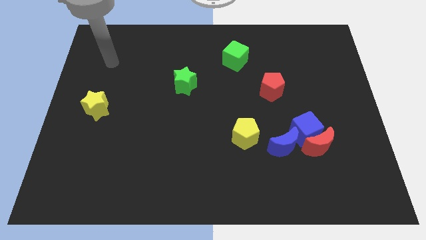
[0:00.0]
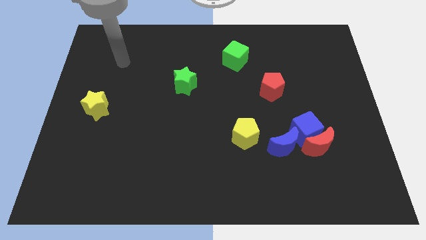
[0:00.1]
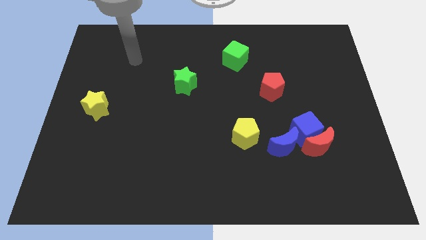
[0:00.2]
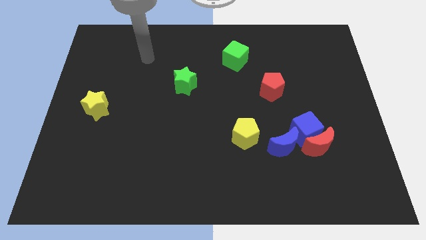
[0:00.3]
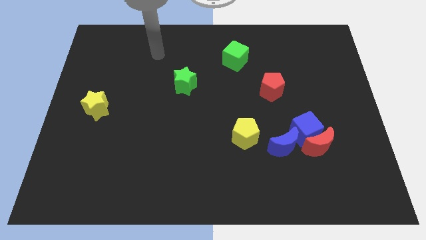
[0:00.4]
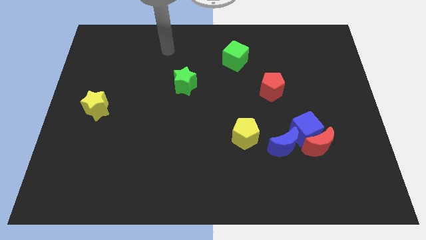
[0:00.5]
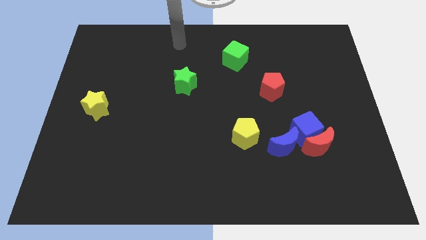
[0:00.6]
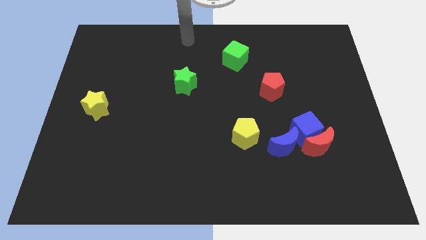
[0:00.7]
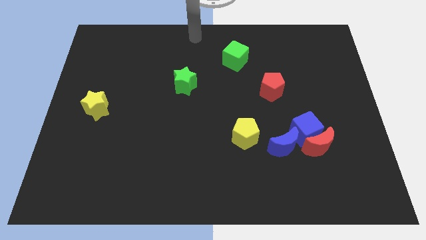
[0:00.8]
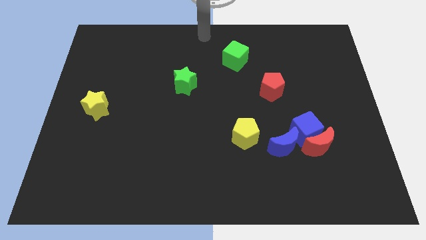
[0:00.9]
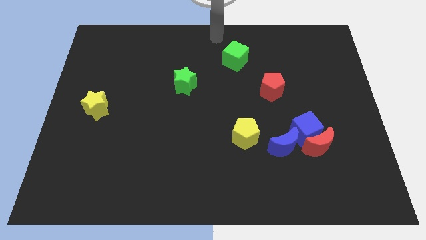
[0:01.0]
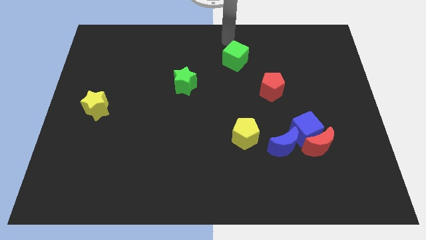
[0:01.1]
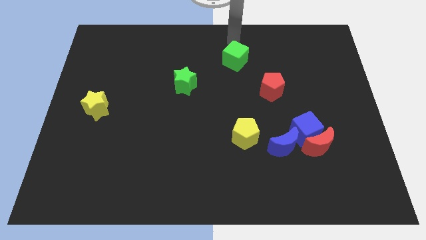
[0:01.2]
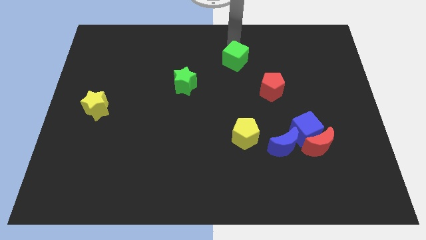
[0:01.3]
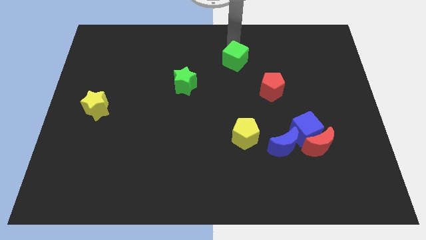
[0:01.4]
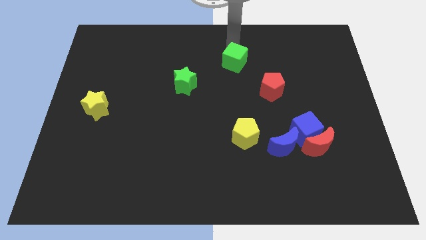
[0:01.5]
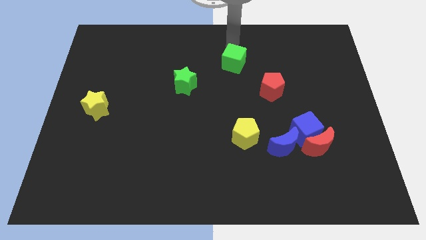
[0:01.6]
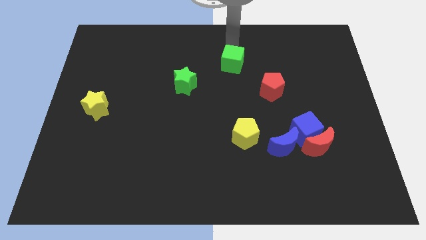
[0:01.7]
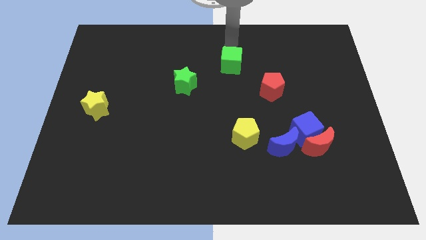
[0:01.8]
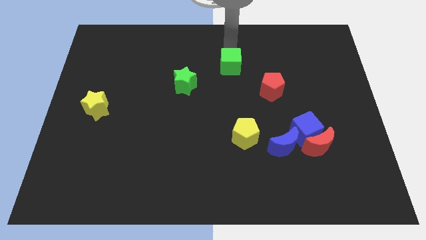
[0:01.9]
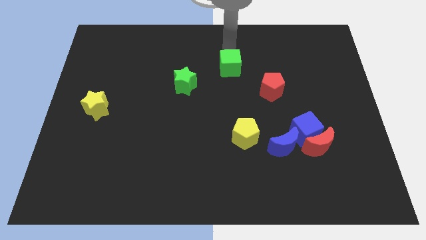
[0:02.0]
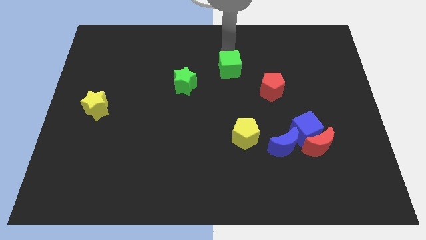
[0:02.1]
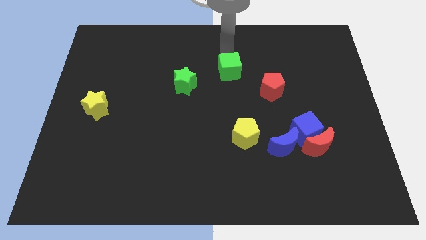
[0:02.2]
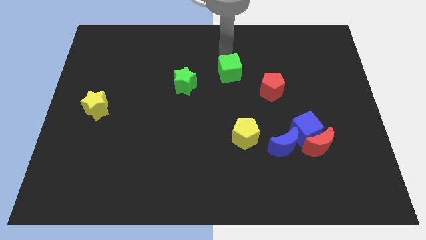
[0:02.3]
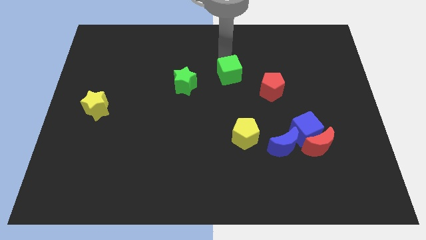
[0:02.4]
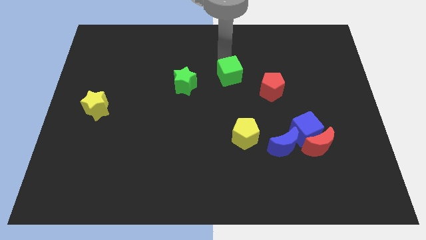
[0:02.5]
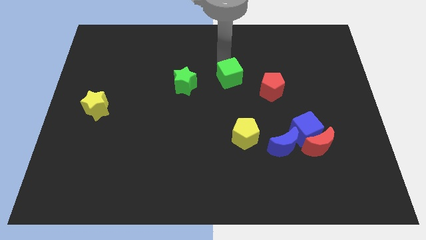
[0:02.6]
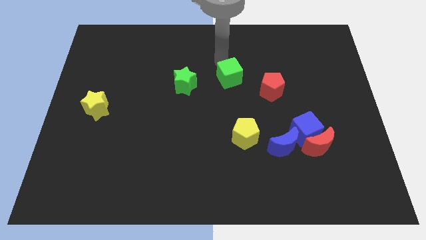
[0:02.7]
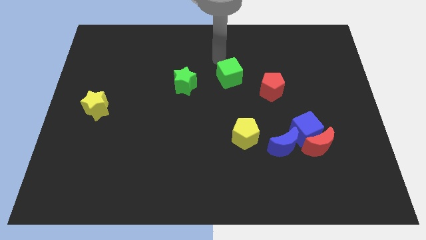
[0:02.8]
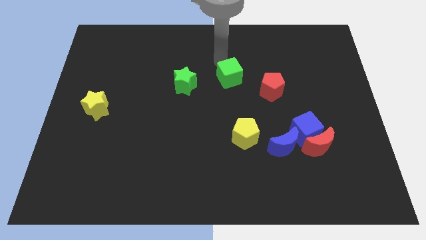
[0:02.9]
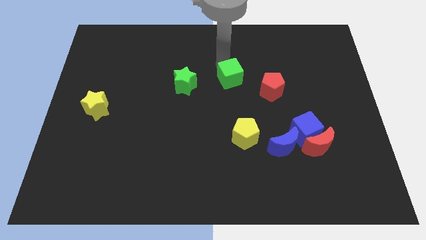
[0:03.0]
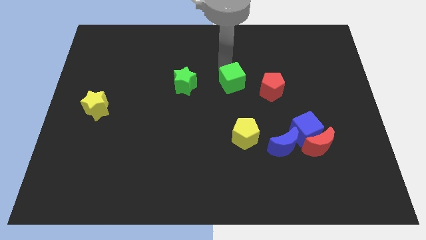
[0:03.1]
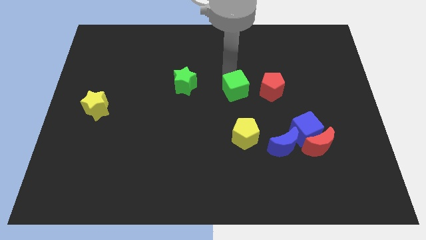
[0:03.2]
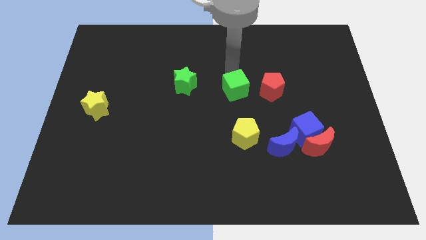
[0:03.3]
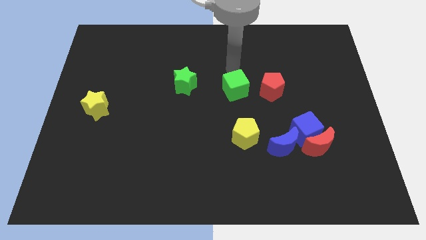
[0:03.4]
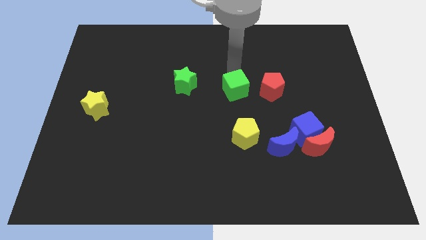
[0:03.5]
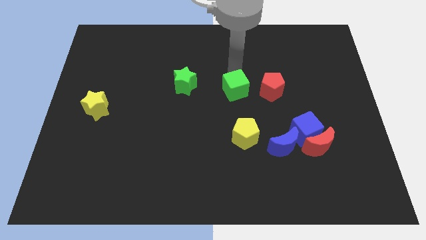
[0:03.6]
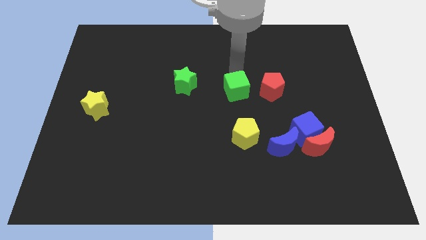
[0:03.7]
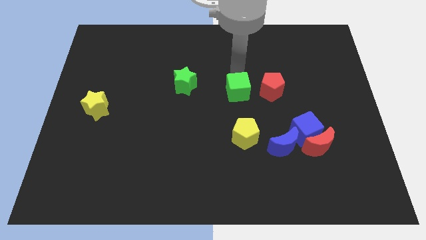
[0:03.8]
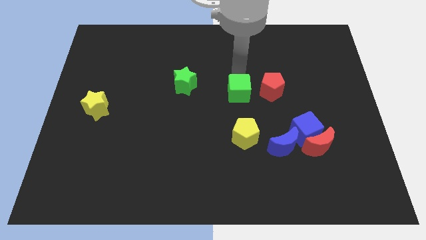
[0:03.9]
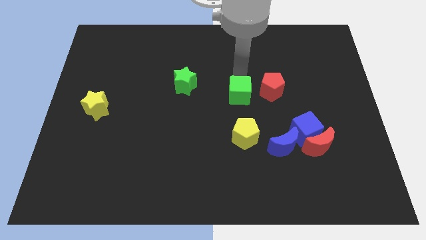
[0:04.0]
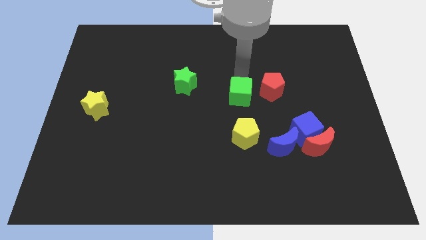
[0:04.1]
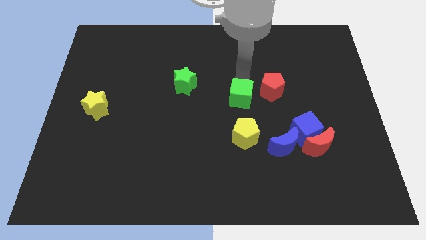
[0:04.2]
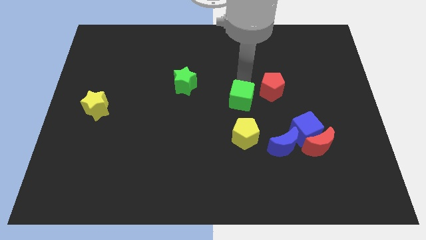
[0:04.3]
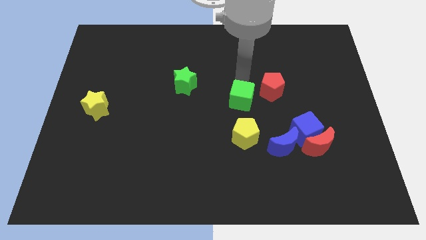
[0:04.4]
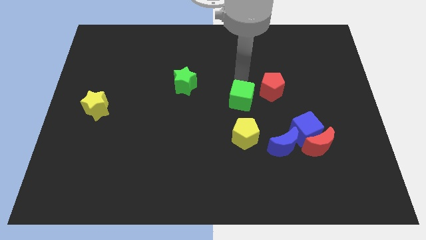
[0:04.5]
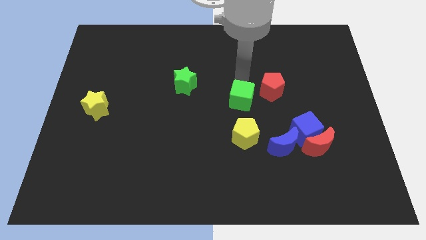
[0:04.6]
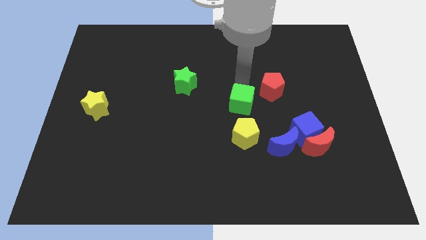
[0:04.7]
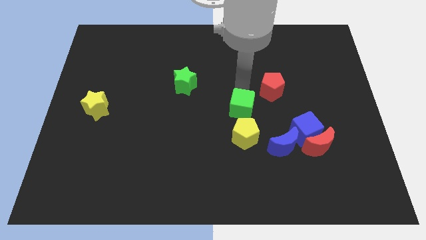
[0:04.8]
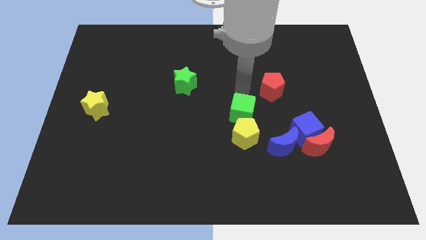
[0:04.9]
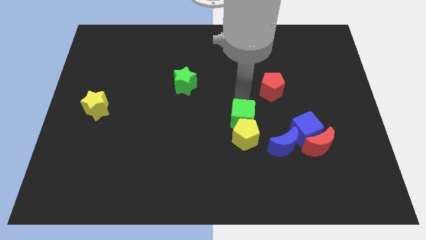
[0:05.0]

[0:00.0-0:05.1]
slide the green cube next to the yellow pentagon

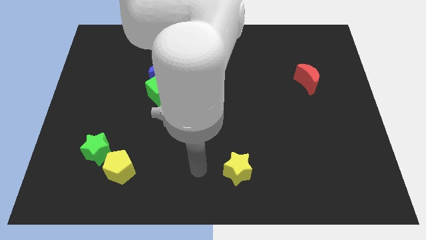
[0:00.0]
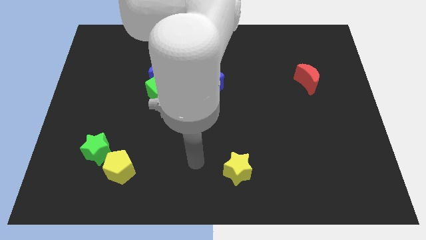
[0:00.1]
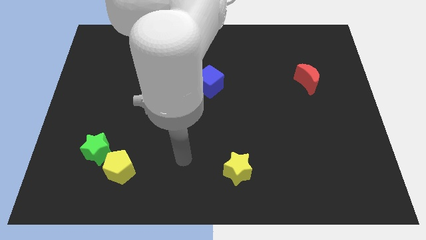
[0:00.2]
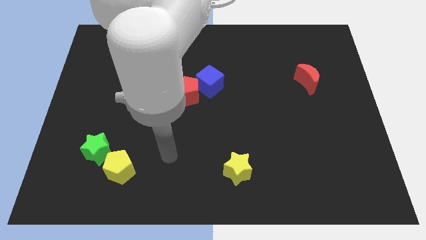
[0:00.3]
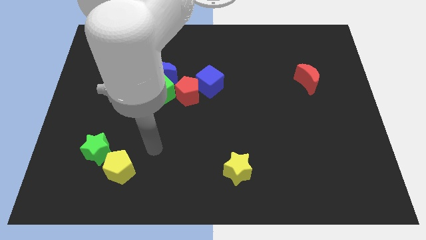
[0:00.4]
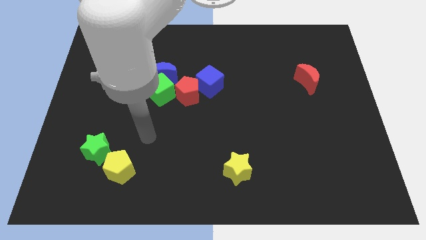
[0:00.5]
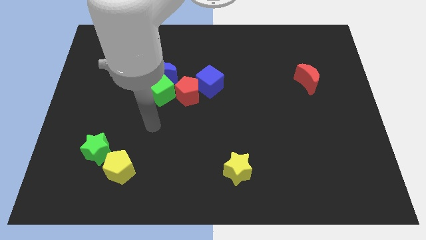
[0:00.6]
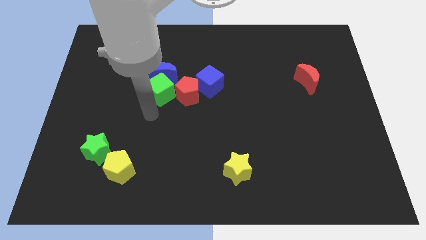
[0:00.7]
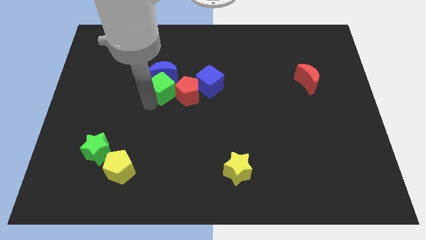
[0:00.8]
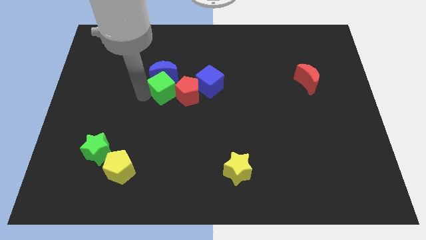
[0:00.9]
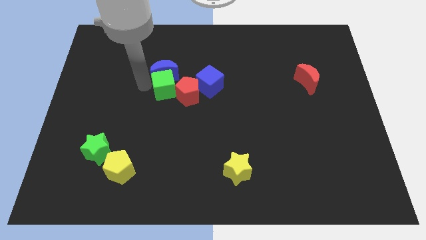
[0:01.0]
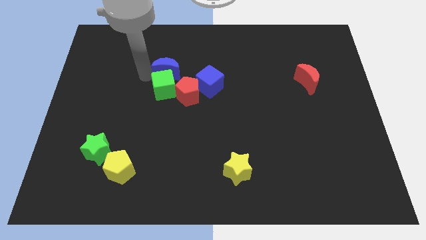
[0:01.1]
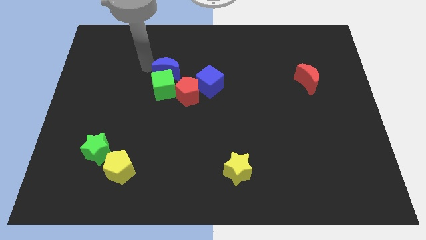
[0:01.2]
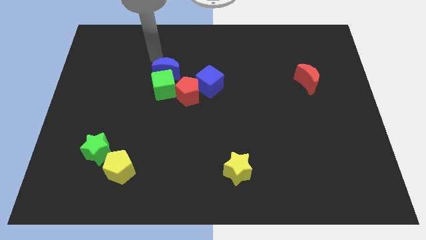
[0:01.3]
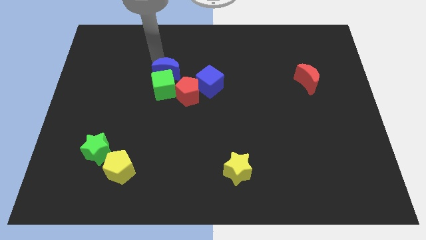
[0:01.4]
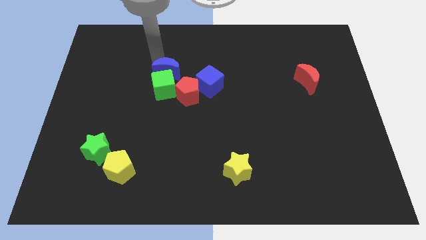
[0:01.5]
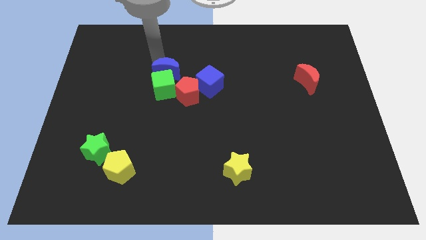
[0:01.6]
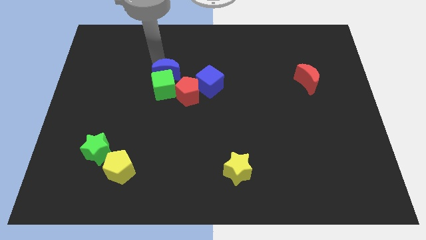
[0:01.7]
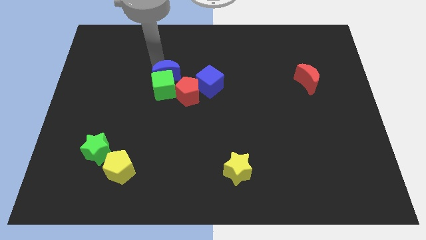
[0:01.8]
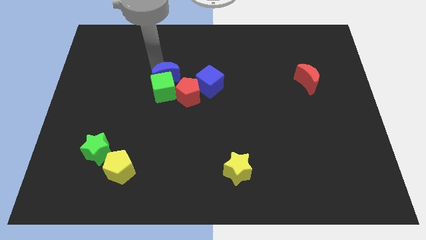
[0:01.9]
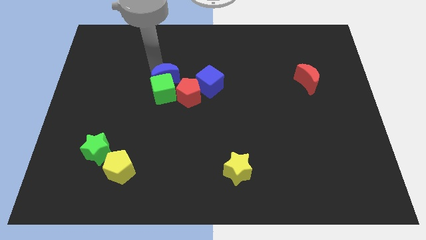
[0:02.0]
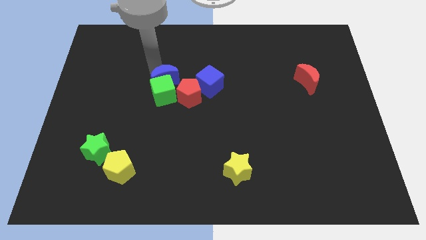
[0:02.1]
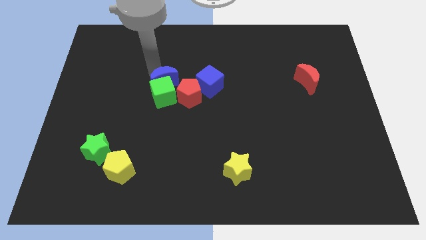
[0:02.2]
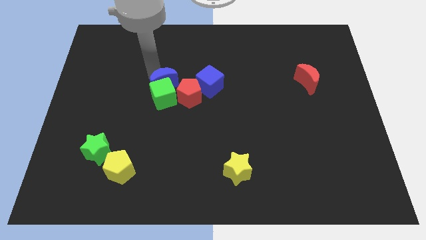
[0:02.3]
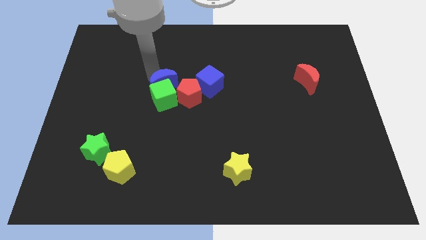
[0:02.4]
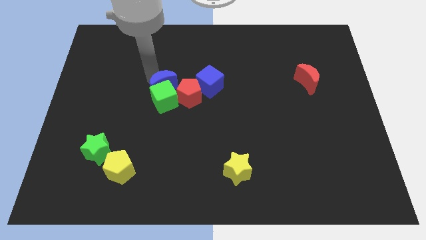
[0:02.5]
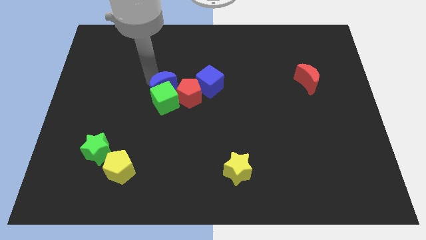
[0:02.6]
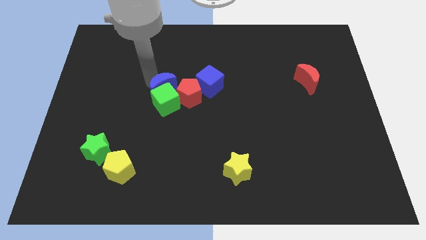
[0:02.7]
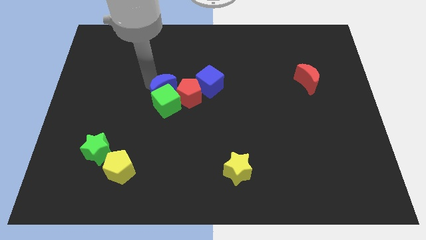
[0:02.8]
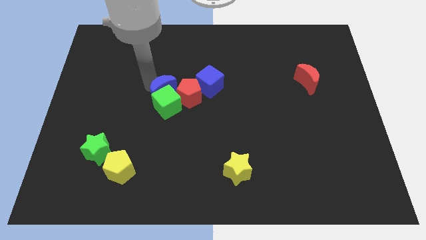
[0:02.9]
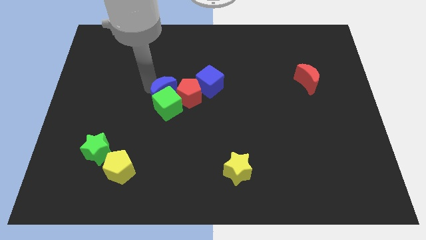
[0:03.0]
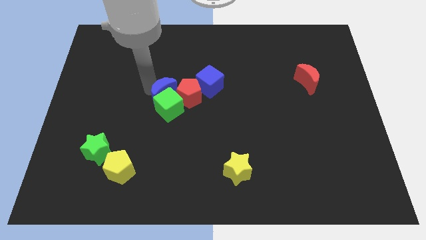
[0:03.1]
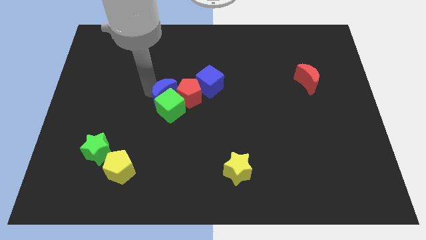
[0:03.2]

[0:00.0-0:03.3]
move the blue moon next to the red pentagon
